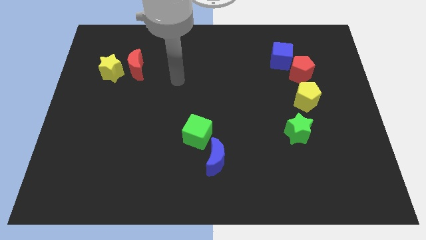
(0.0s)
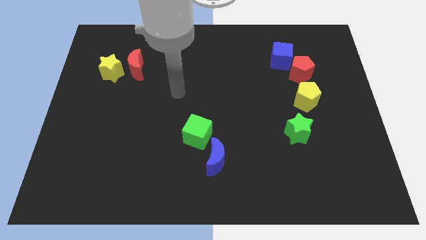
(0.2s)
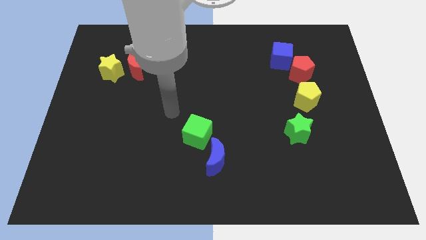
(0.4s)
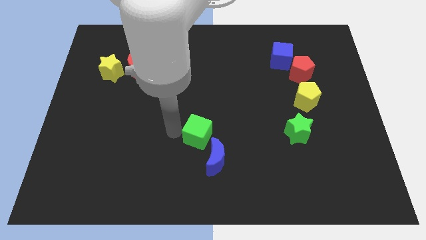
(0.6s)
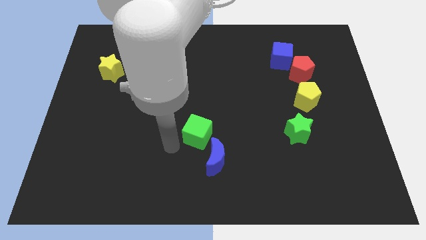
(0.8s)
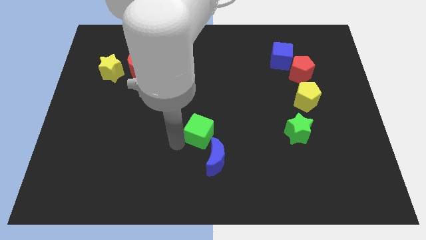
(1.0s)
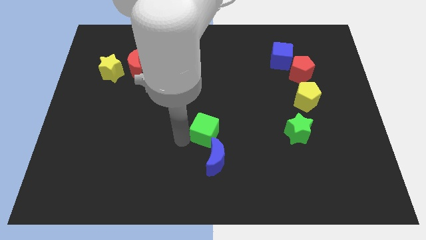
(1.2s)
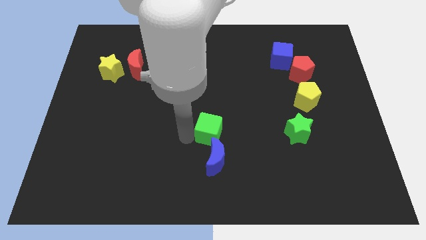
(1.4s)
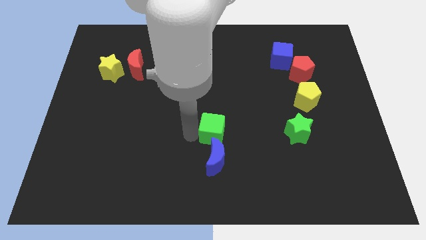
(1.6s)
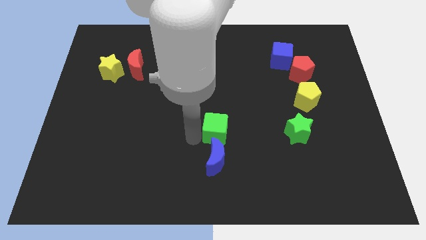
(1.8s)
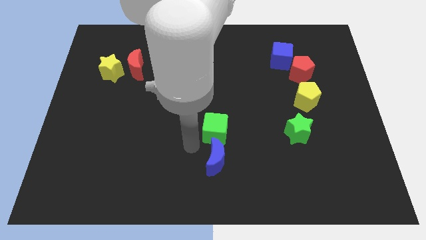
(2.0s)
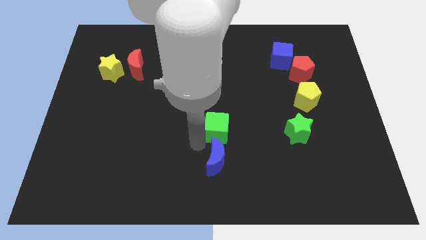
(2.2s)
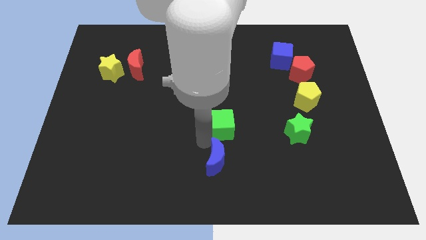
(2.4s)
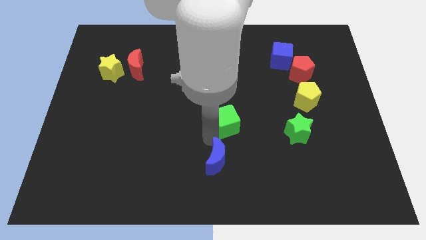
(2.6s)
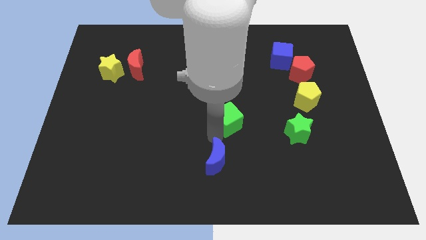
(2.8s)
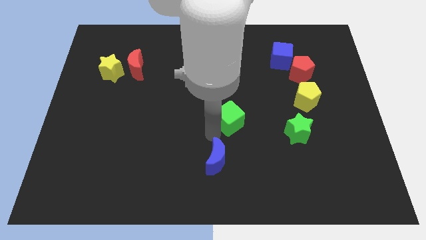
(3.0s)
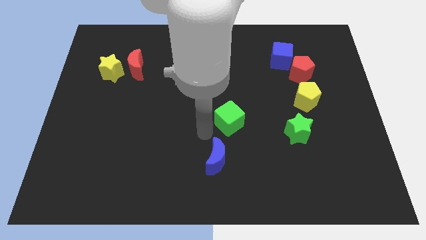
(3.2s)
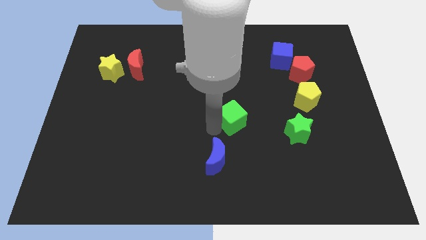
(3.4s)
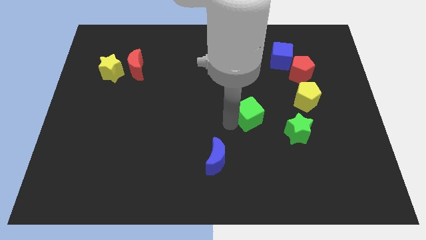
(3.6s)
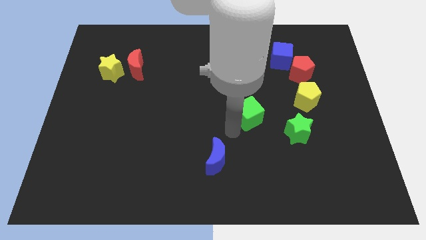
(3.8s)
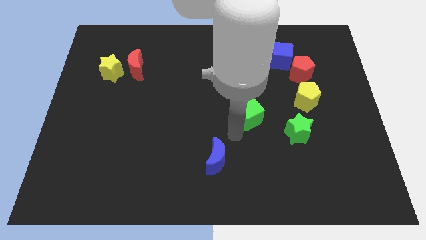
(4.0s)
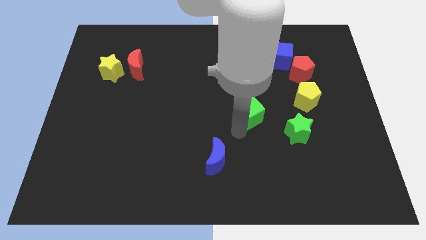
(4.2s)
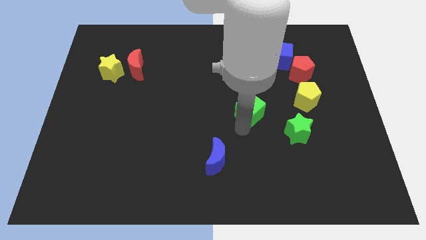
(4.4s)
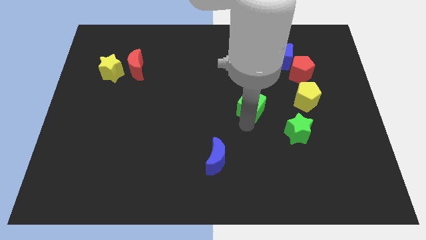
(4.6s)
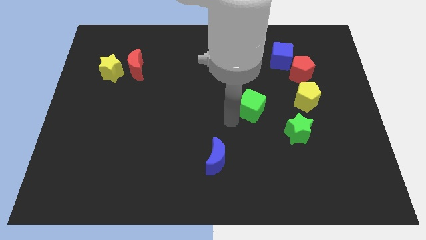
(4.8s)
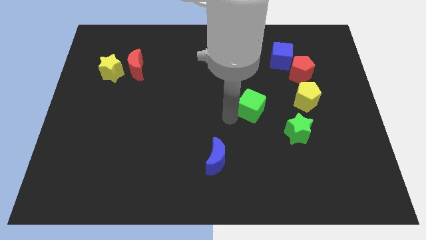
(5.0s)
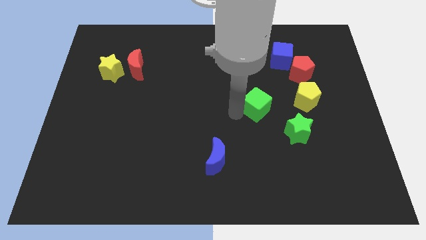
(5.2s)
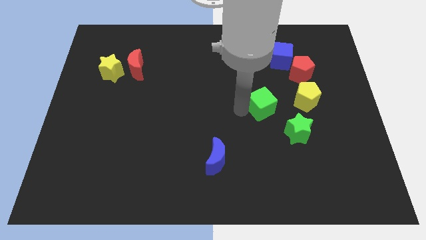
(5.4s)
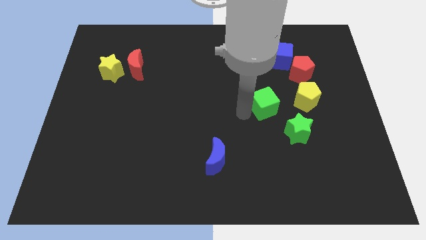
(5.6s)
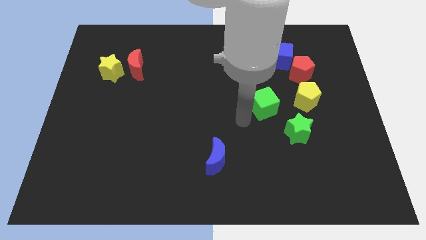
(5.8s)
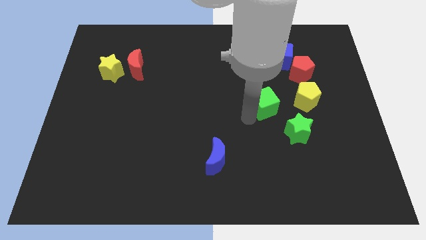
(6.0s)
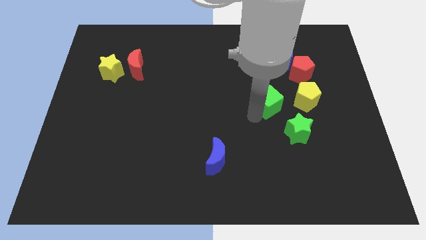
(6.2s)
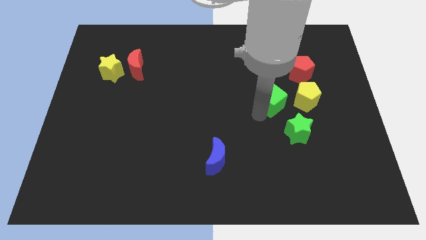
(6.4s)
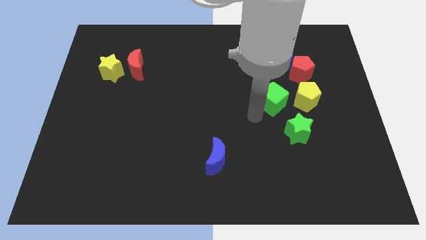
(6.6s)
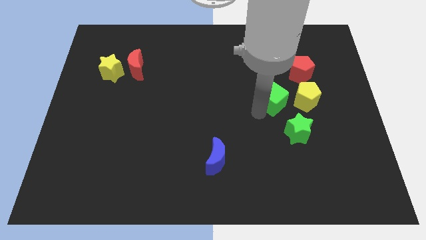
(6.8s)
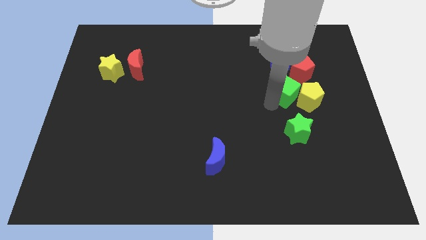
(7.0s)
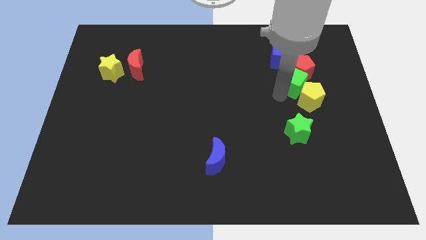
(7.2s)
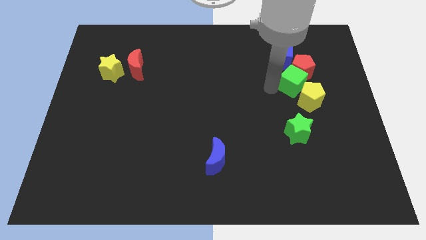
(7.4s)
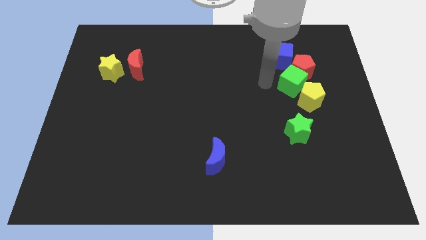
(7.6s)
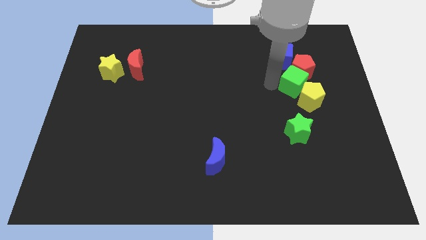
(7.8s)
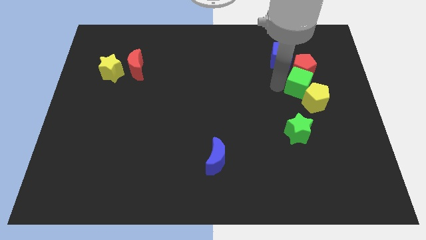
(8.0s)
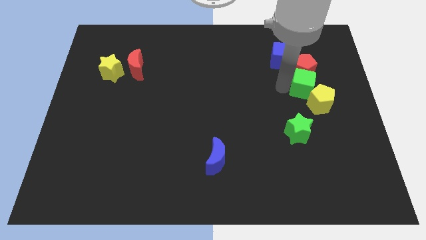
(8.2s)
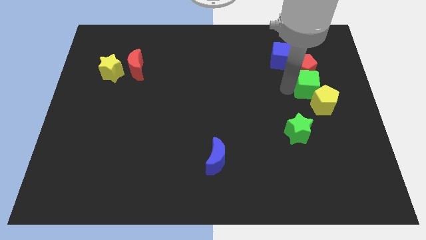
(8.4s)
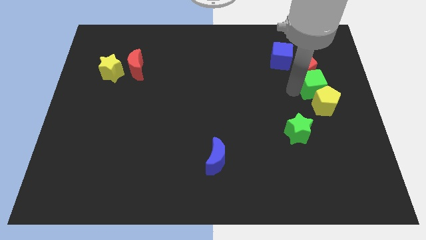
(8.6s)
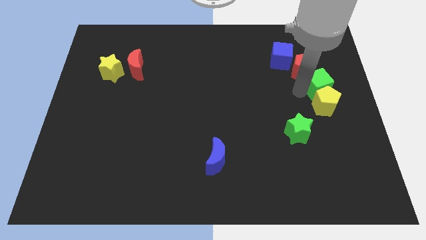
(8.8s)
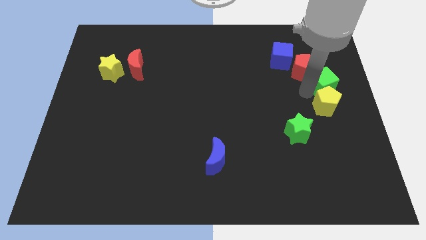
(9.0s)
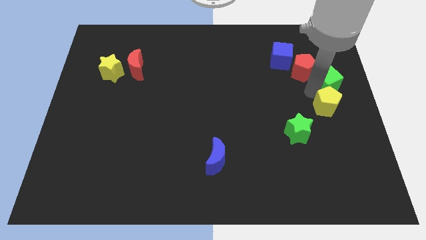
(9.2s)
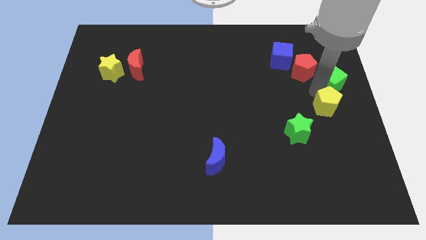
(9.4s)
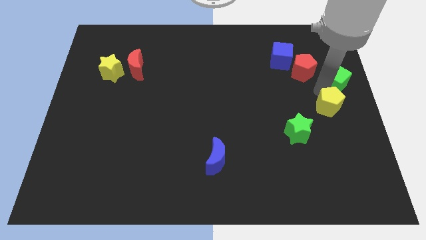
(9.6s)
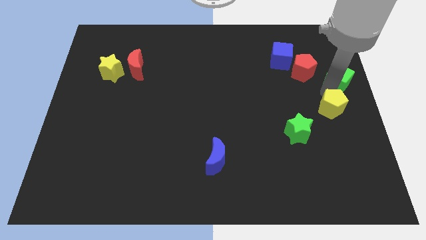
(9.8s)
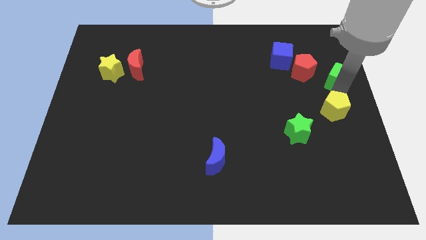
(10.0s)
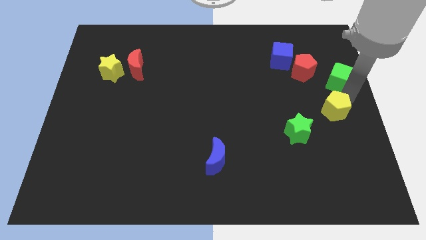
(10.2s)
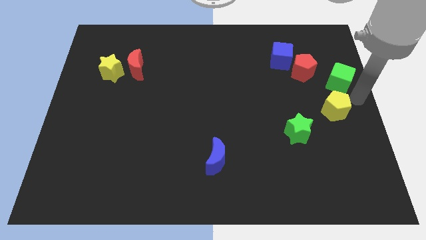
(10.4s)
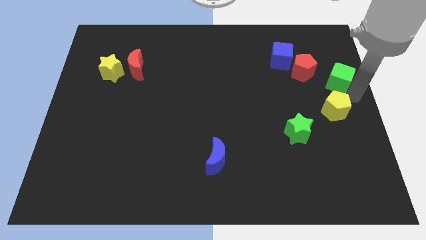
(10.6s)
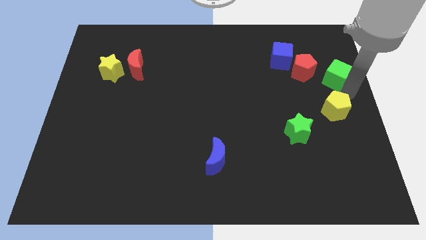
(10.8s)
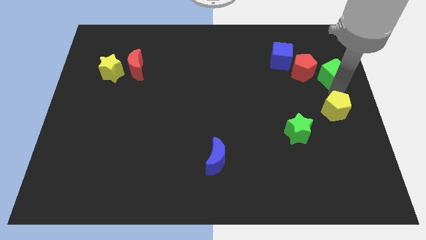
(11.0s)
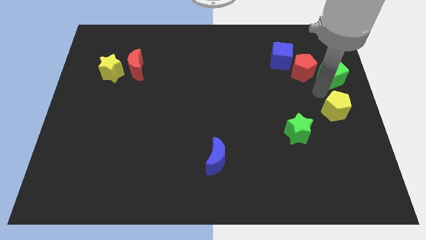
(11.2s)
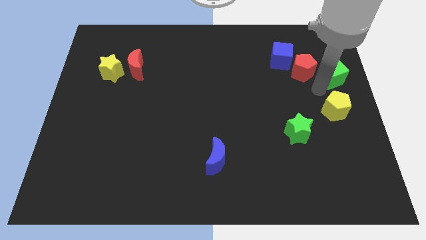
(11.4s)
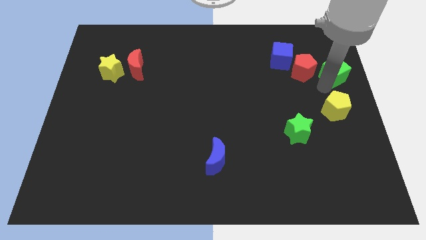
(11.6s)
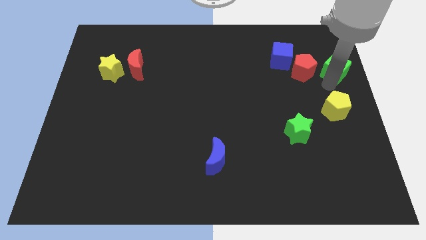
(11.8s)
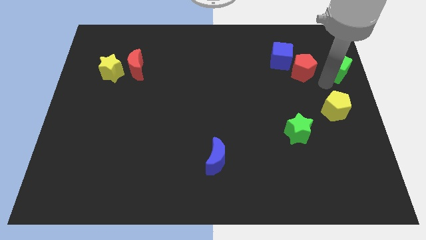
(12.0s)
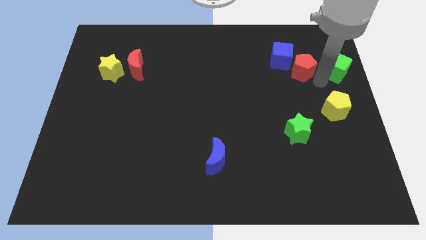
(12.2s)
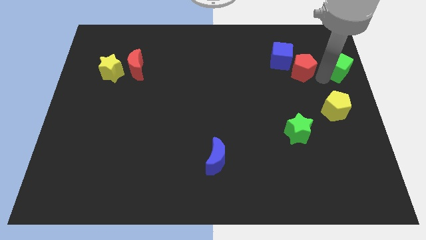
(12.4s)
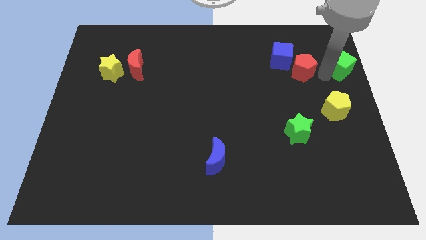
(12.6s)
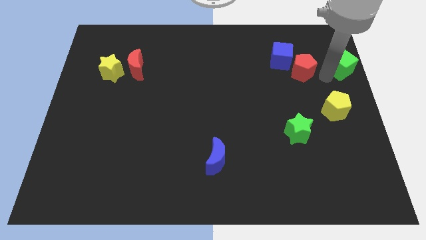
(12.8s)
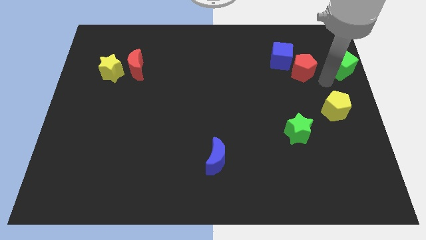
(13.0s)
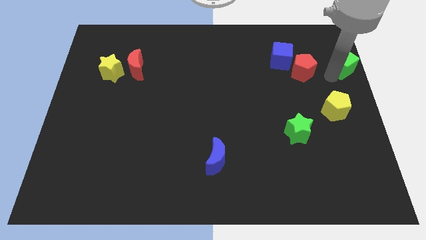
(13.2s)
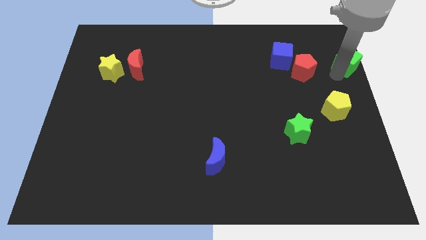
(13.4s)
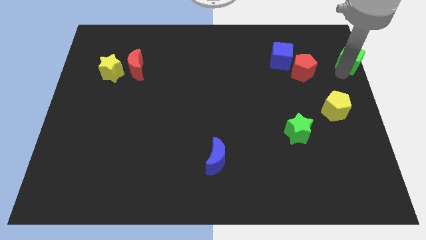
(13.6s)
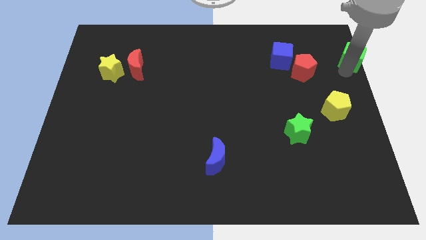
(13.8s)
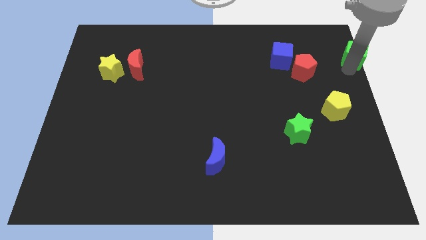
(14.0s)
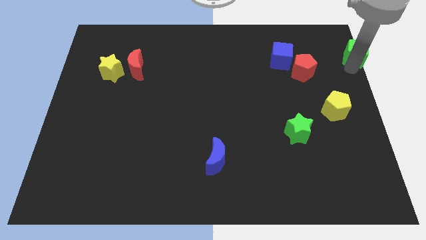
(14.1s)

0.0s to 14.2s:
put the green cube to the top right corner
